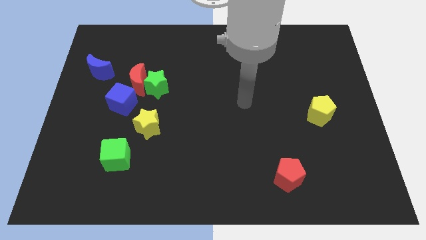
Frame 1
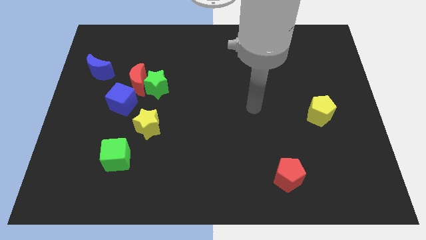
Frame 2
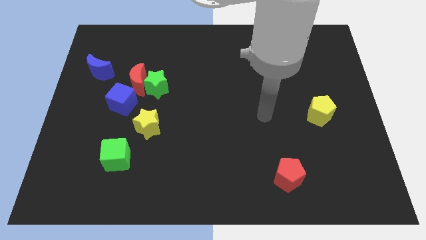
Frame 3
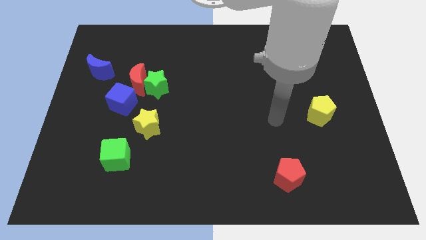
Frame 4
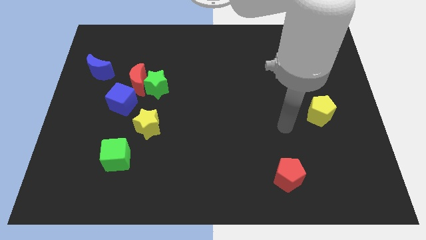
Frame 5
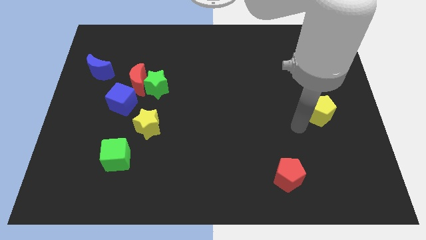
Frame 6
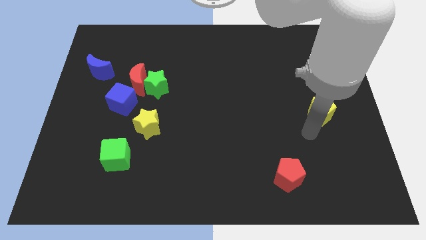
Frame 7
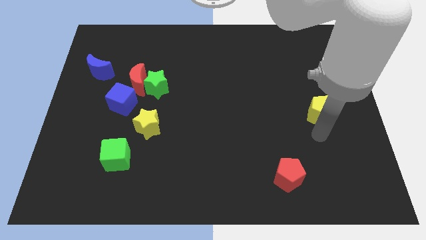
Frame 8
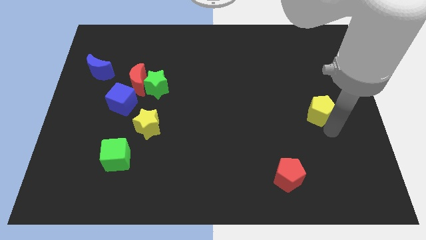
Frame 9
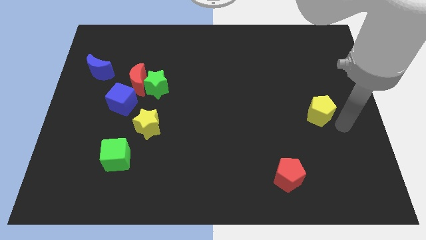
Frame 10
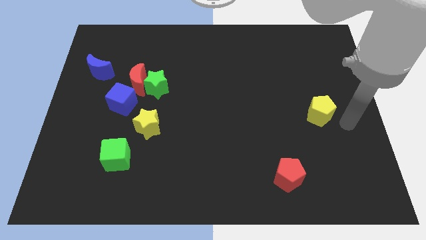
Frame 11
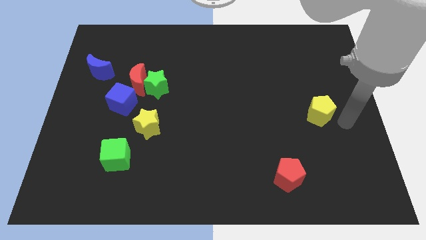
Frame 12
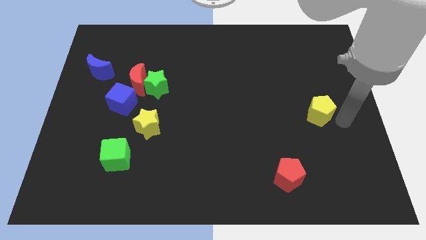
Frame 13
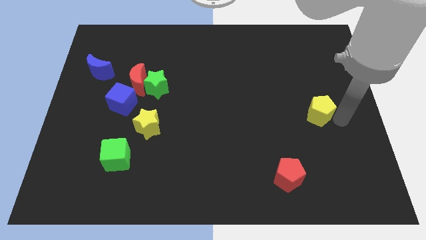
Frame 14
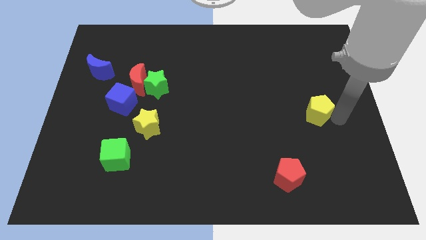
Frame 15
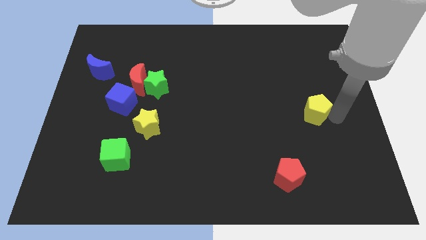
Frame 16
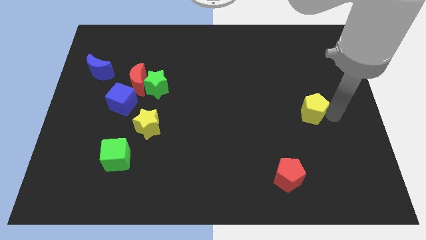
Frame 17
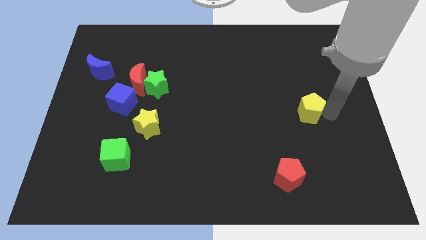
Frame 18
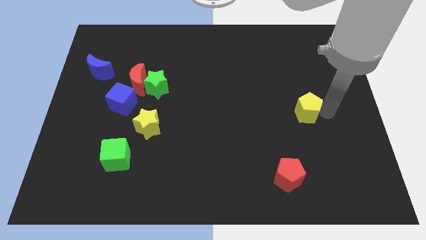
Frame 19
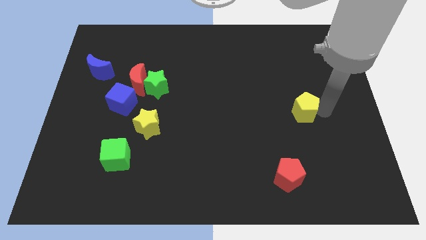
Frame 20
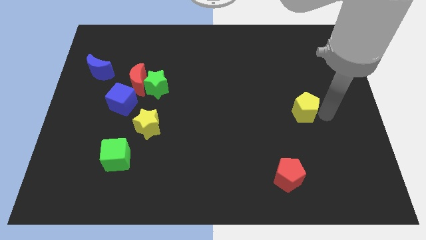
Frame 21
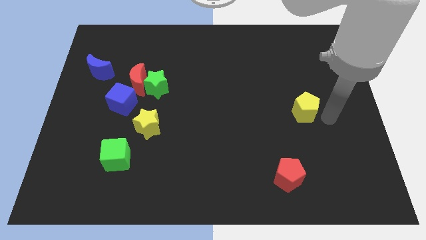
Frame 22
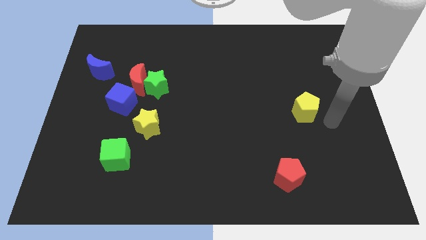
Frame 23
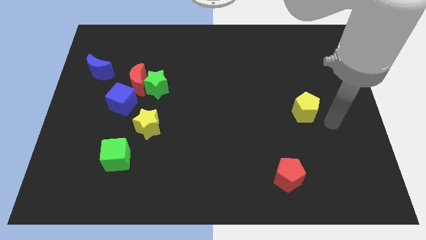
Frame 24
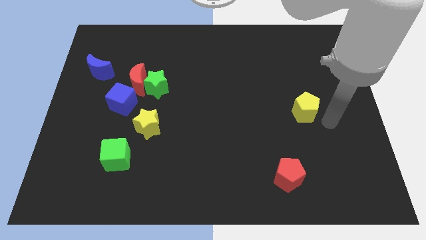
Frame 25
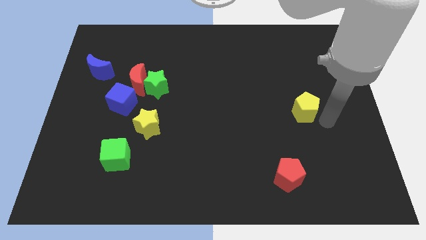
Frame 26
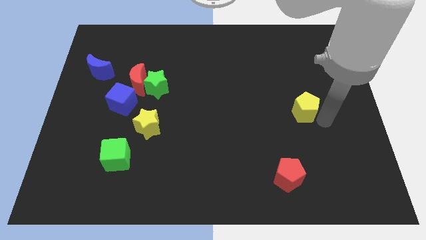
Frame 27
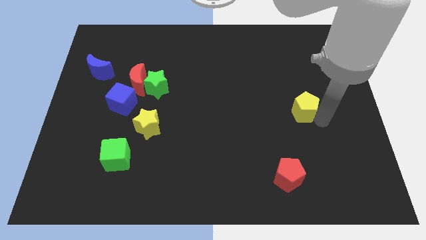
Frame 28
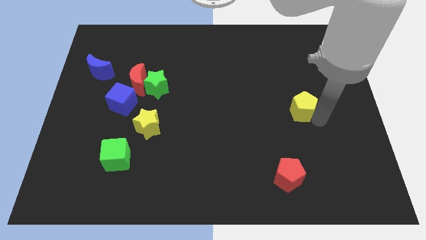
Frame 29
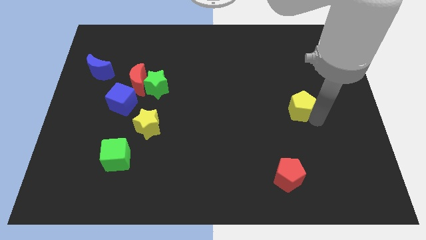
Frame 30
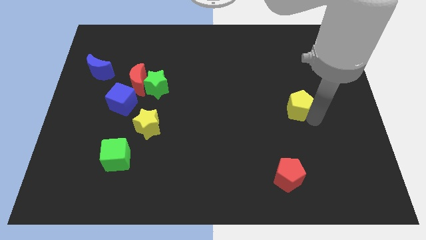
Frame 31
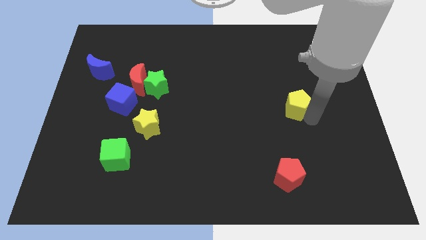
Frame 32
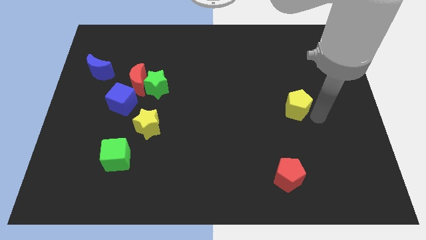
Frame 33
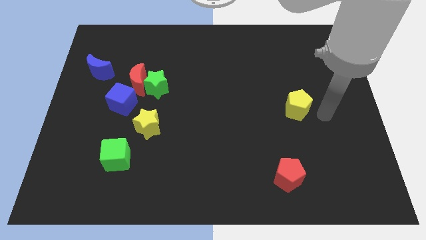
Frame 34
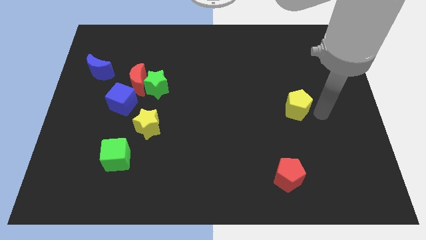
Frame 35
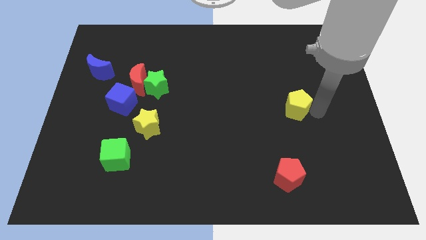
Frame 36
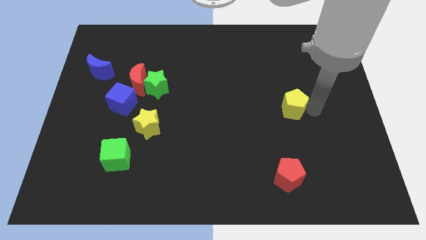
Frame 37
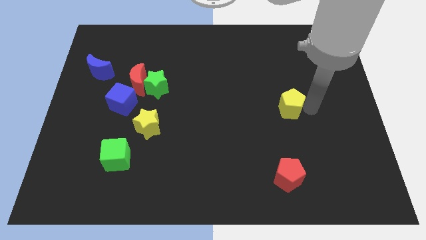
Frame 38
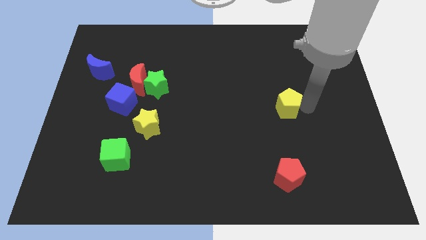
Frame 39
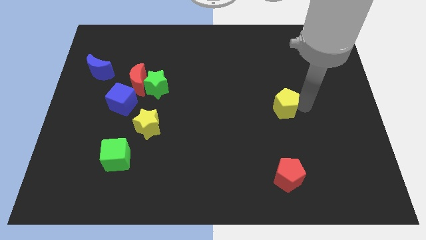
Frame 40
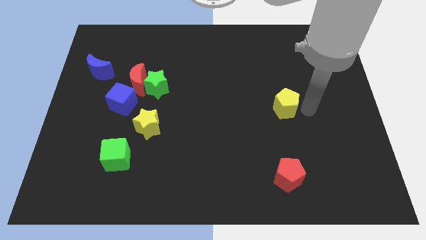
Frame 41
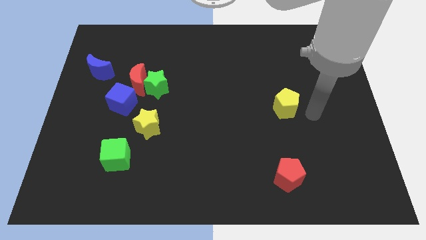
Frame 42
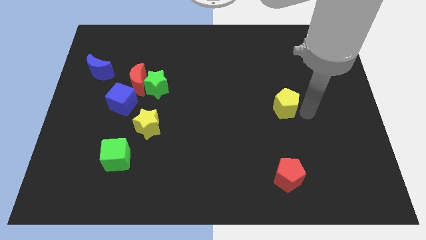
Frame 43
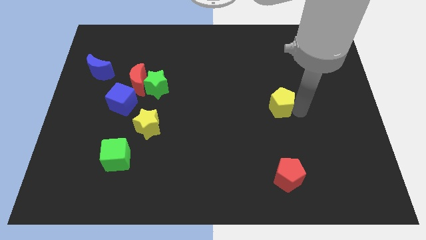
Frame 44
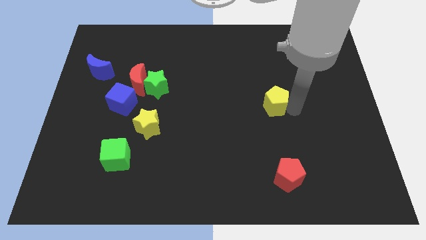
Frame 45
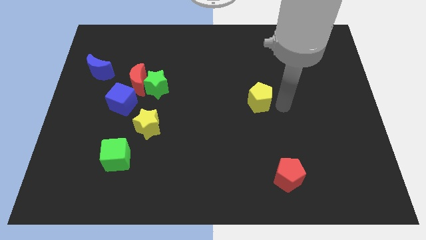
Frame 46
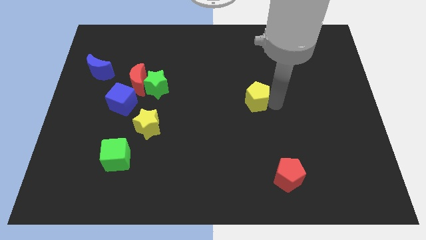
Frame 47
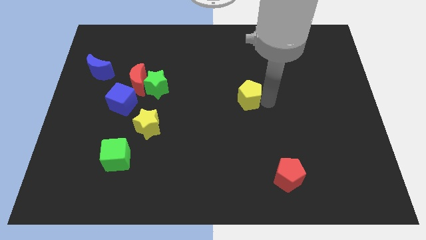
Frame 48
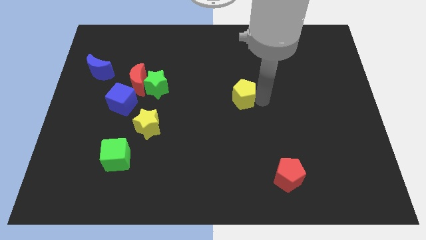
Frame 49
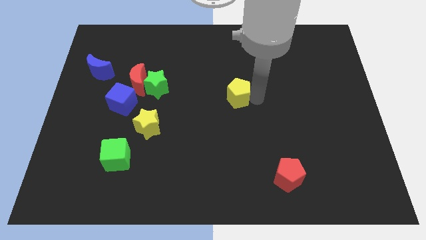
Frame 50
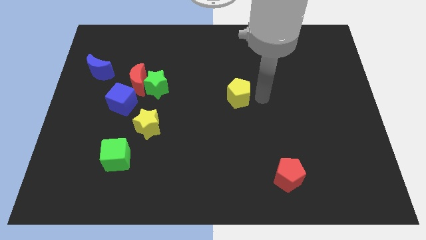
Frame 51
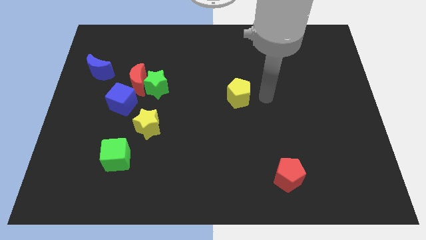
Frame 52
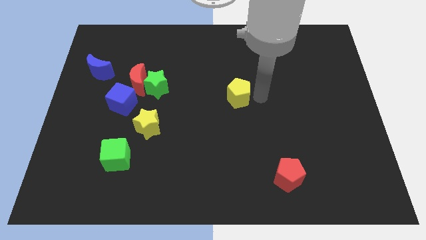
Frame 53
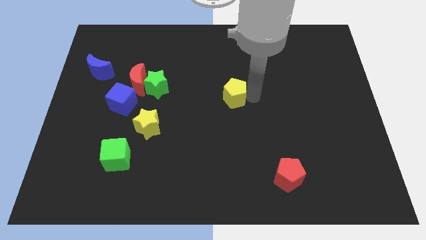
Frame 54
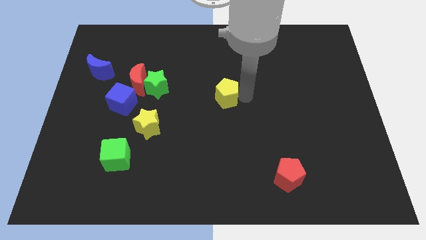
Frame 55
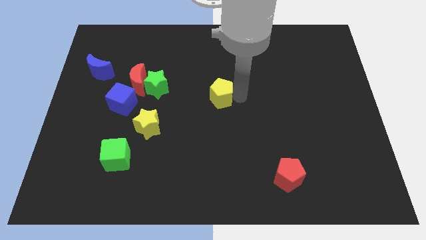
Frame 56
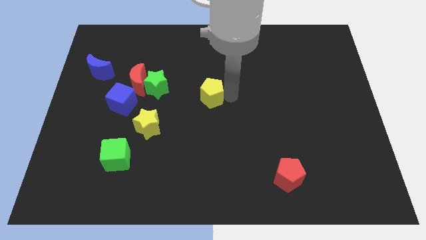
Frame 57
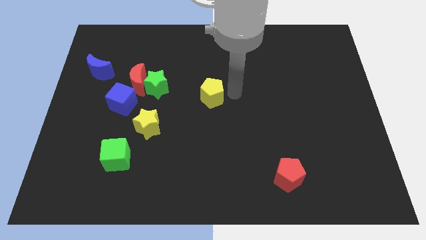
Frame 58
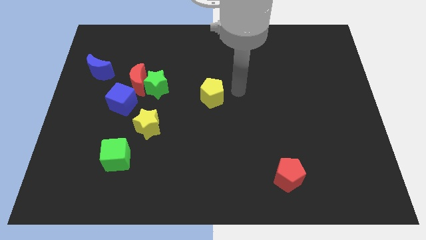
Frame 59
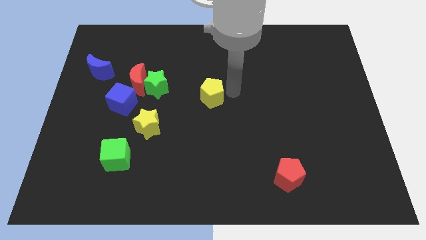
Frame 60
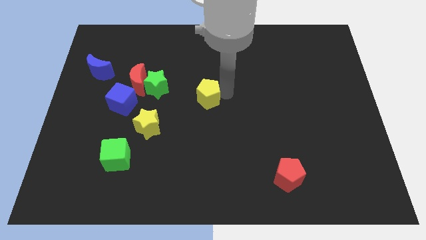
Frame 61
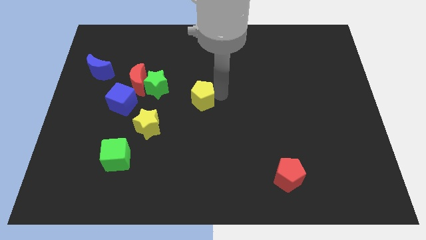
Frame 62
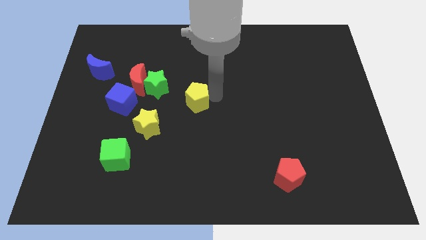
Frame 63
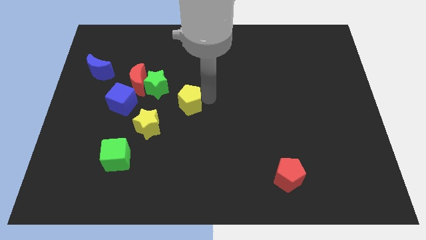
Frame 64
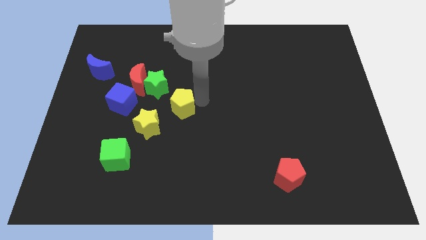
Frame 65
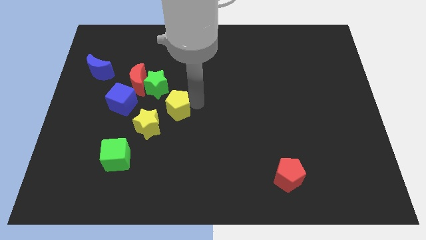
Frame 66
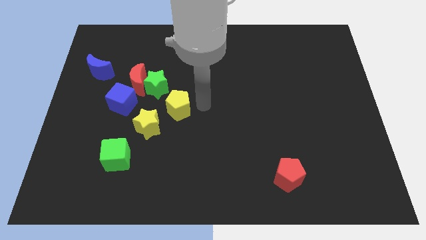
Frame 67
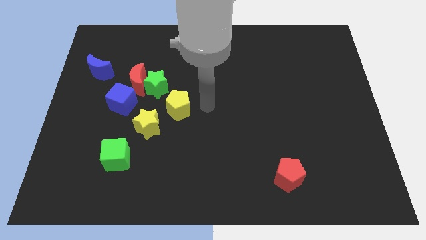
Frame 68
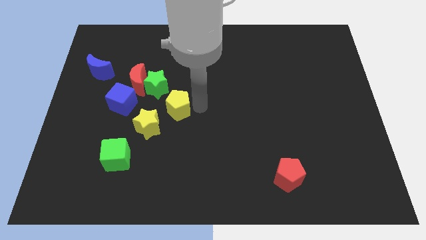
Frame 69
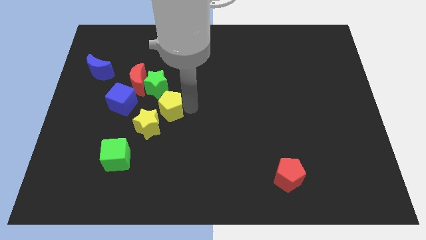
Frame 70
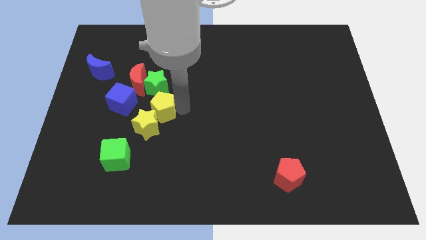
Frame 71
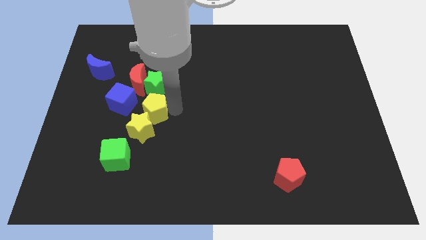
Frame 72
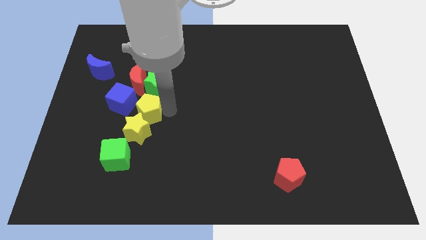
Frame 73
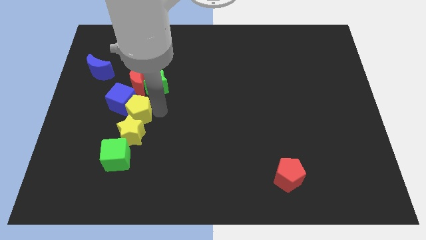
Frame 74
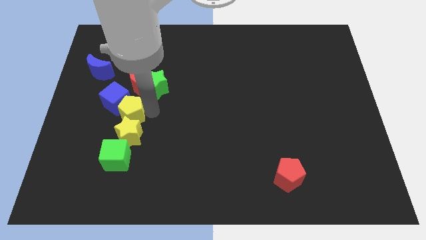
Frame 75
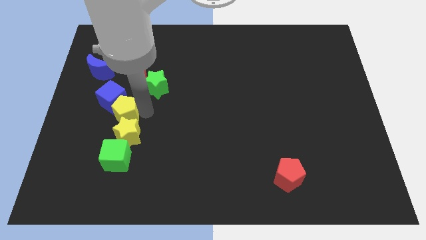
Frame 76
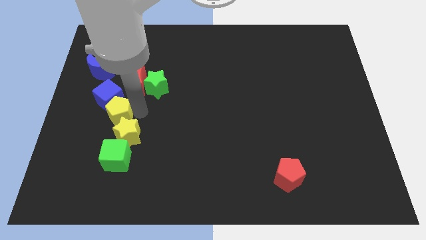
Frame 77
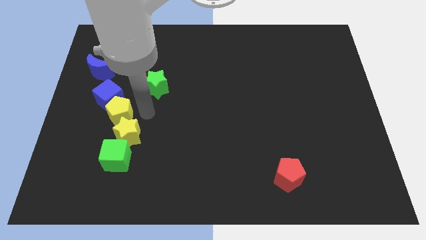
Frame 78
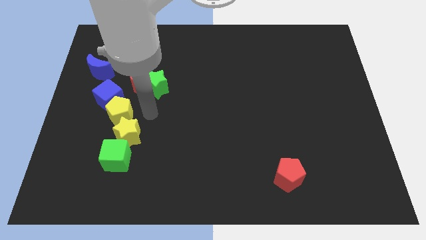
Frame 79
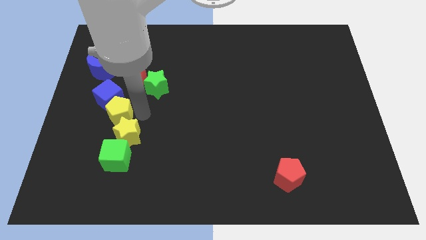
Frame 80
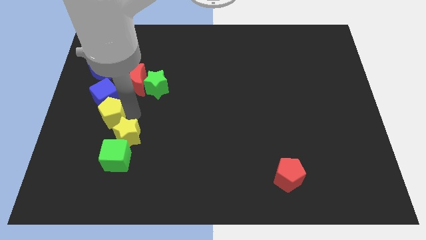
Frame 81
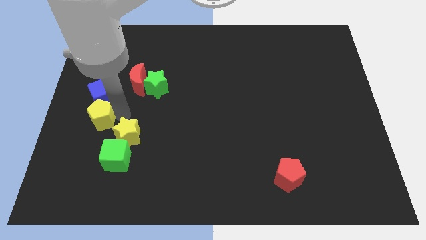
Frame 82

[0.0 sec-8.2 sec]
slide the yellow pentagon to the bottom left of the blue cube
